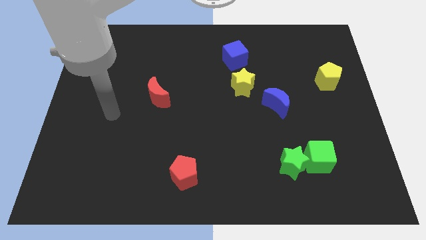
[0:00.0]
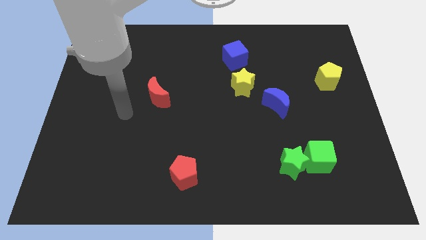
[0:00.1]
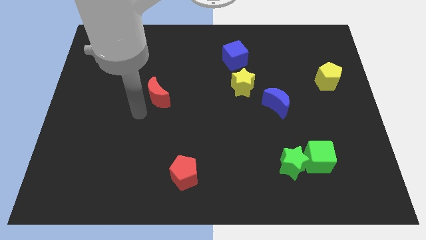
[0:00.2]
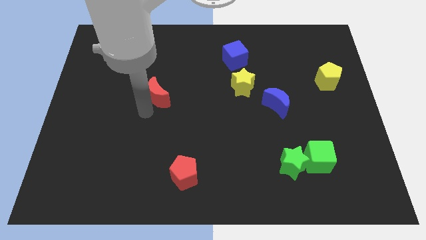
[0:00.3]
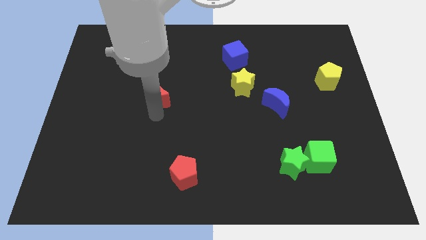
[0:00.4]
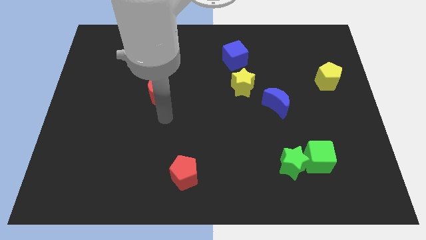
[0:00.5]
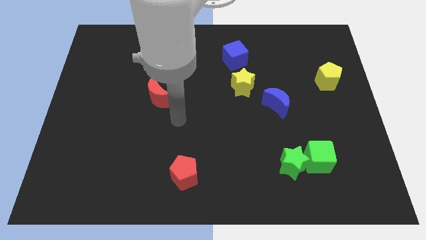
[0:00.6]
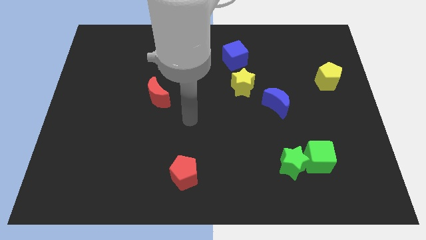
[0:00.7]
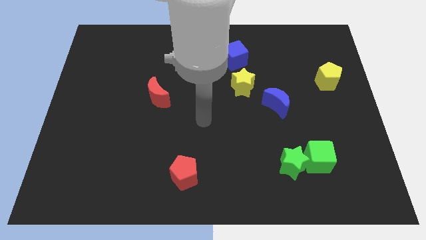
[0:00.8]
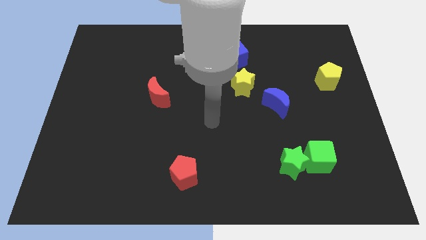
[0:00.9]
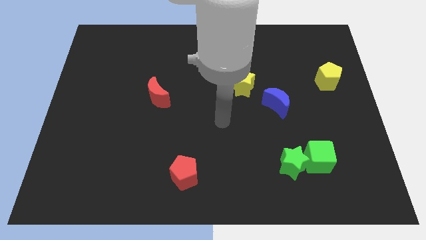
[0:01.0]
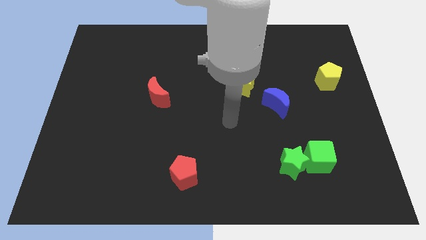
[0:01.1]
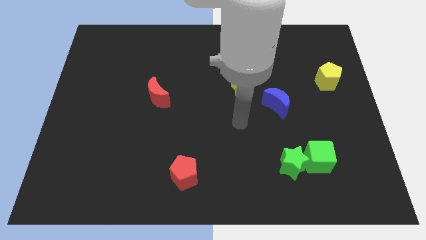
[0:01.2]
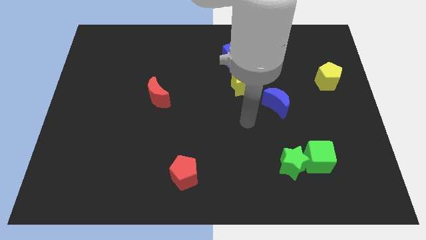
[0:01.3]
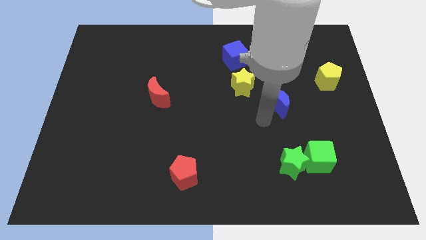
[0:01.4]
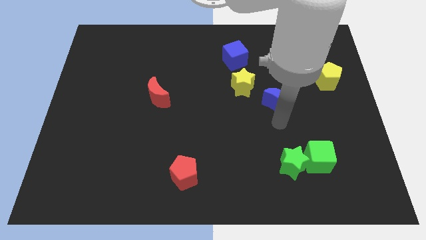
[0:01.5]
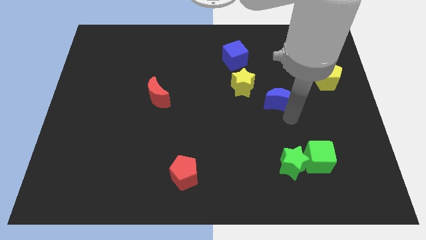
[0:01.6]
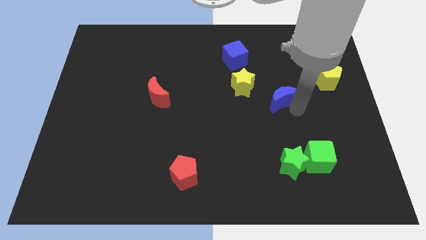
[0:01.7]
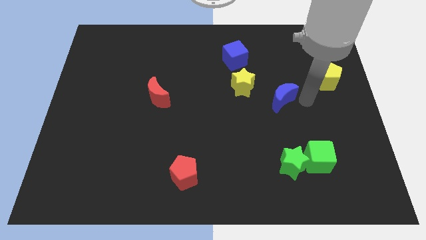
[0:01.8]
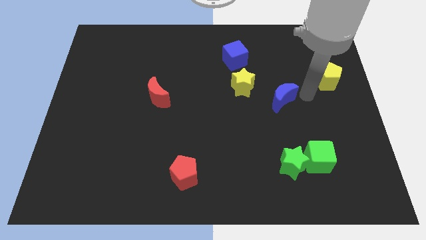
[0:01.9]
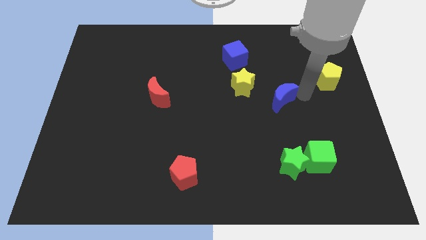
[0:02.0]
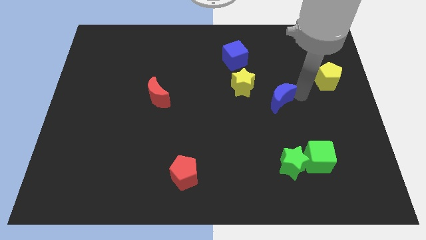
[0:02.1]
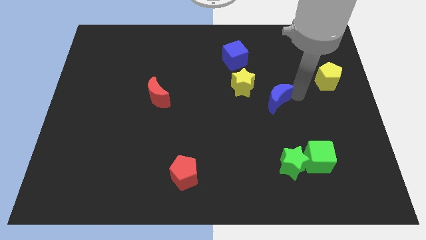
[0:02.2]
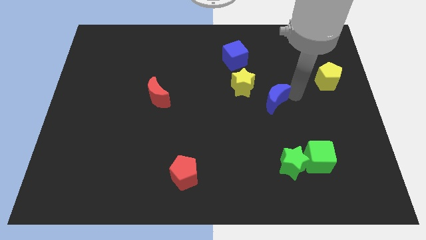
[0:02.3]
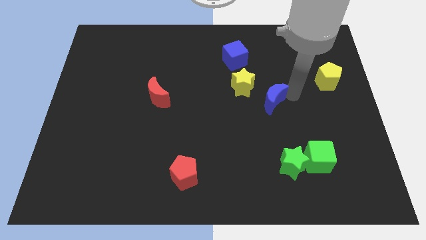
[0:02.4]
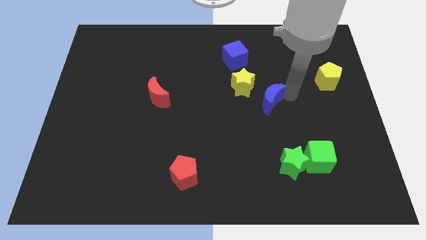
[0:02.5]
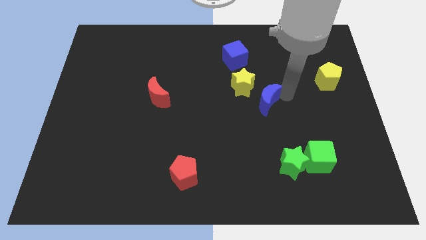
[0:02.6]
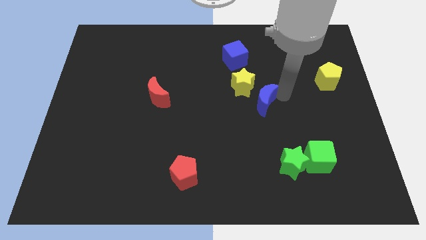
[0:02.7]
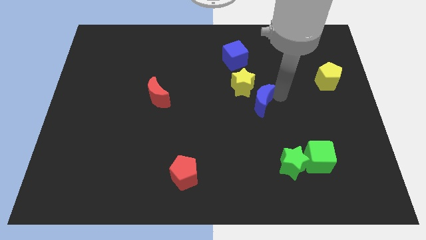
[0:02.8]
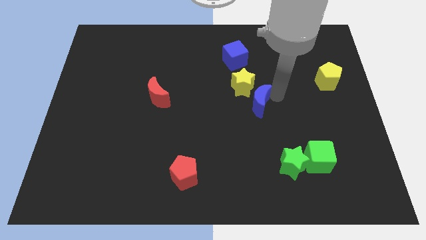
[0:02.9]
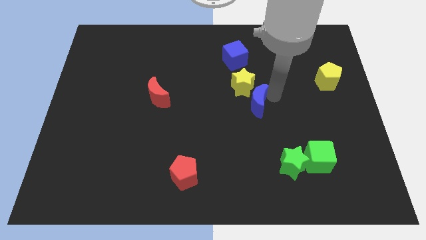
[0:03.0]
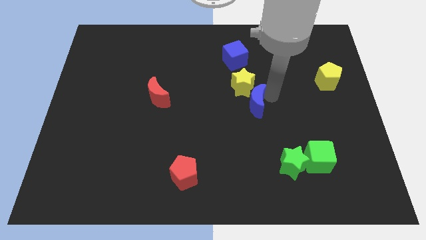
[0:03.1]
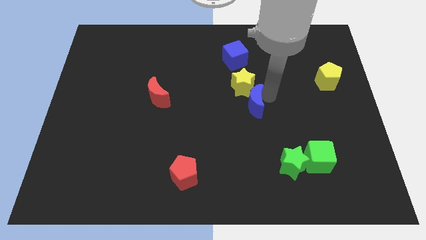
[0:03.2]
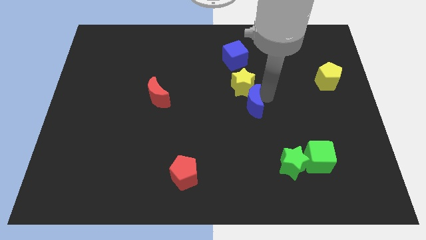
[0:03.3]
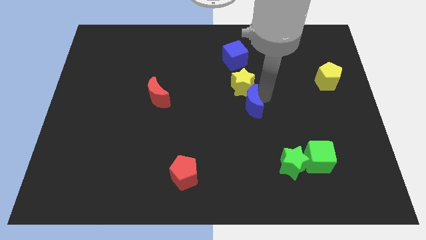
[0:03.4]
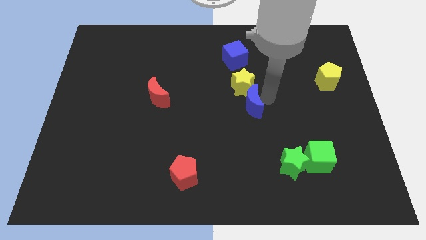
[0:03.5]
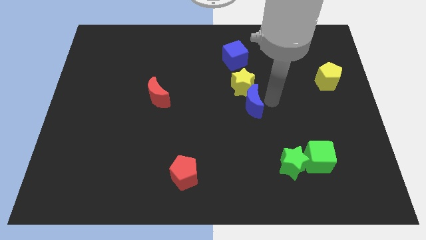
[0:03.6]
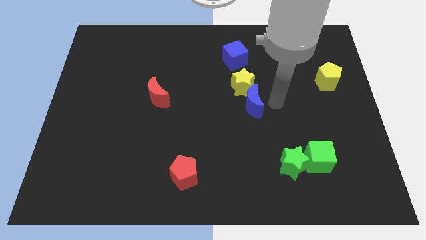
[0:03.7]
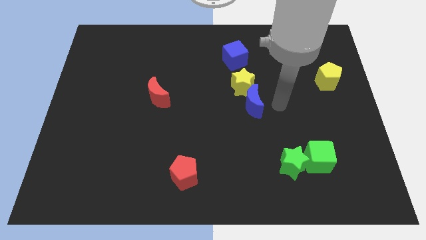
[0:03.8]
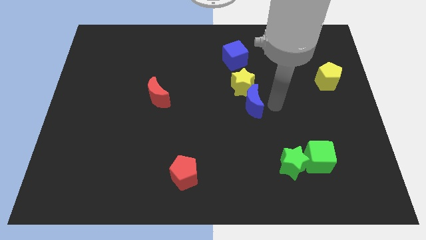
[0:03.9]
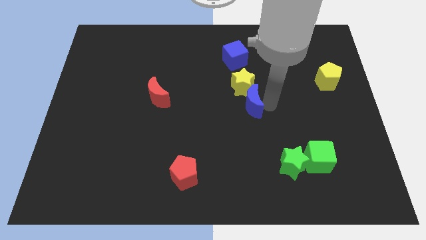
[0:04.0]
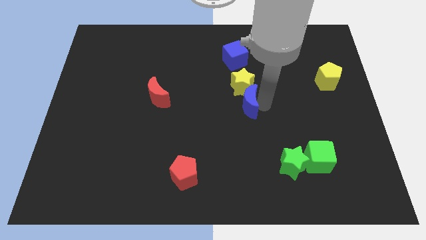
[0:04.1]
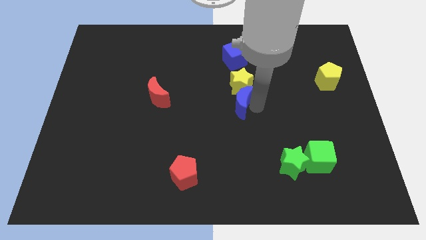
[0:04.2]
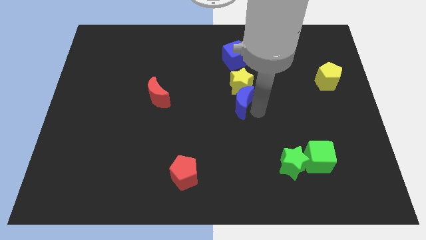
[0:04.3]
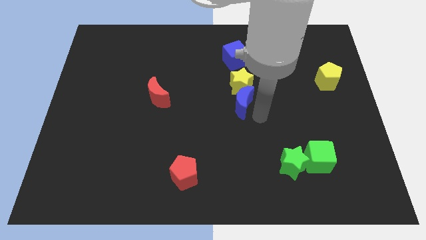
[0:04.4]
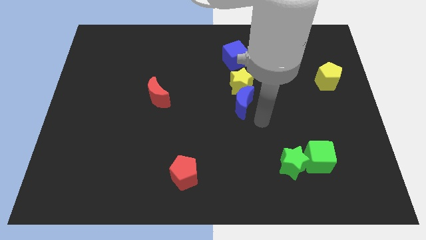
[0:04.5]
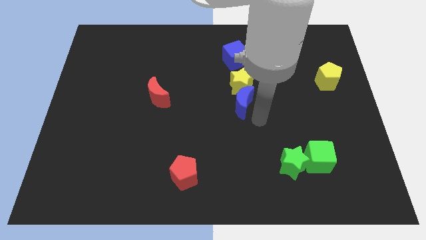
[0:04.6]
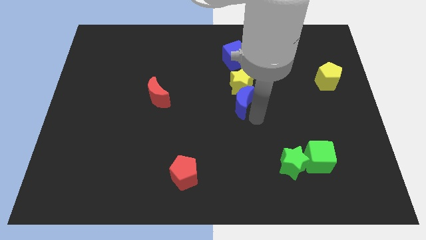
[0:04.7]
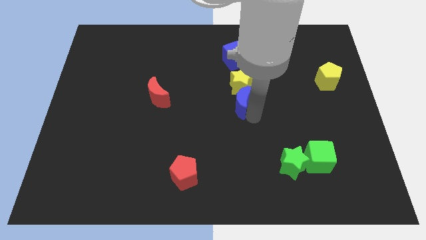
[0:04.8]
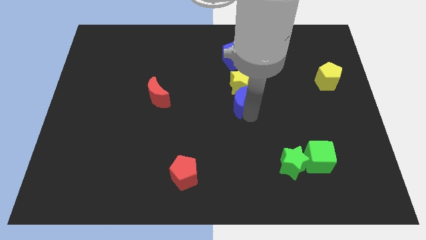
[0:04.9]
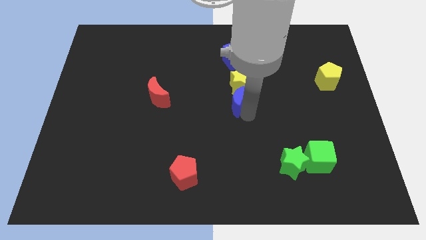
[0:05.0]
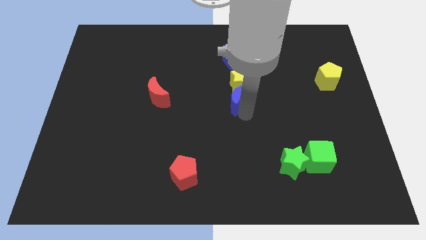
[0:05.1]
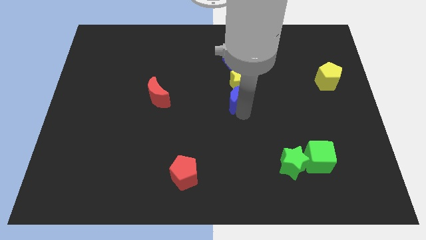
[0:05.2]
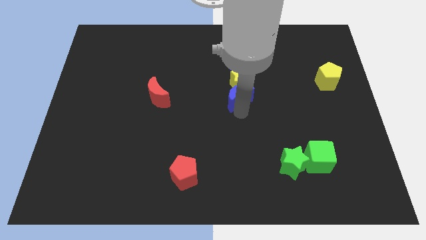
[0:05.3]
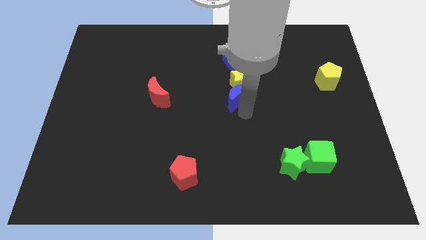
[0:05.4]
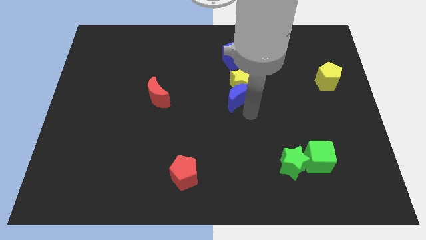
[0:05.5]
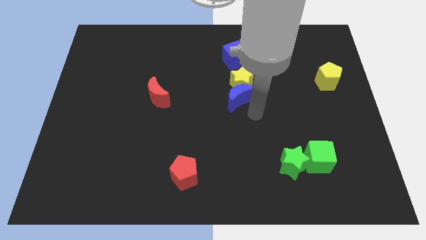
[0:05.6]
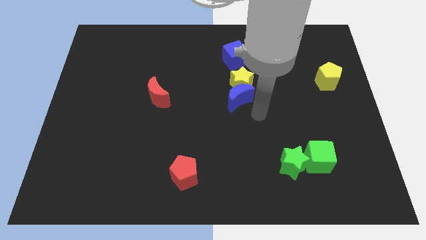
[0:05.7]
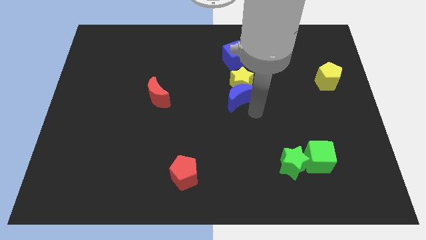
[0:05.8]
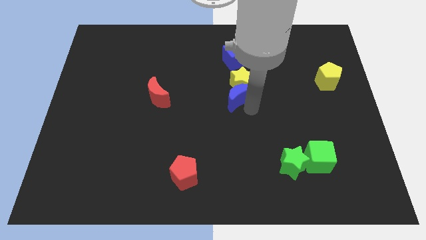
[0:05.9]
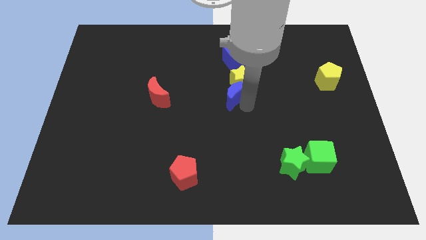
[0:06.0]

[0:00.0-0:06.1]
push the blue moon a little bit up and then to the left

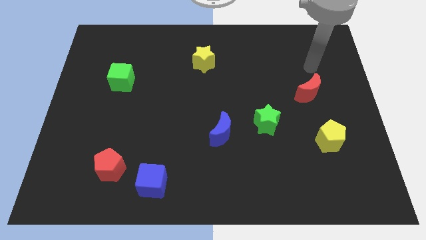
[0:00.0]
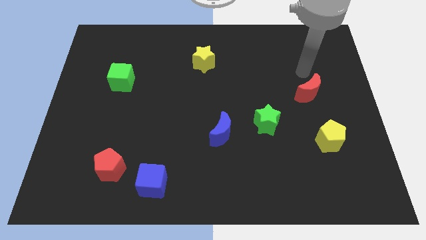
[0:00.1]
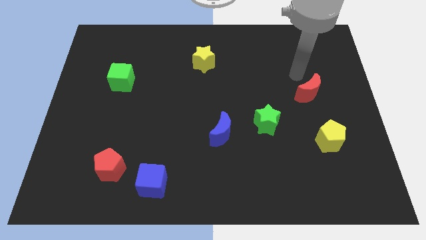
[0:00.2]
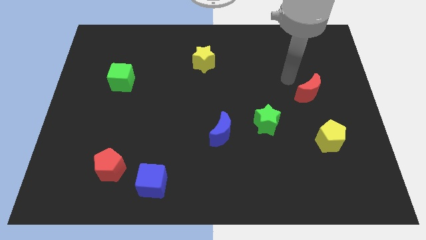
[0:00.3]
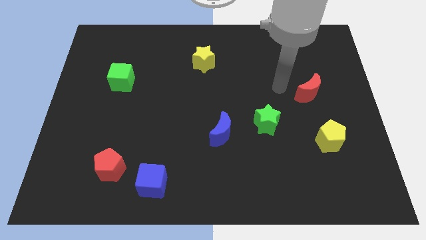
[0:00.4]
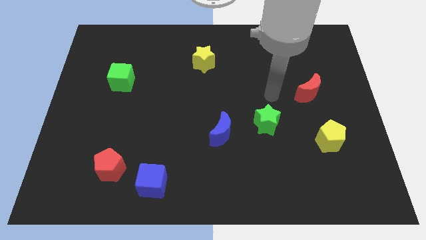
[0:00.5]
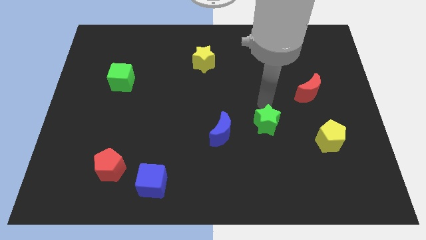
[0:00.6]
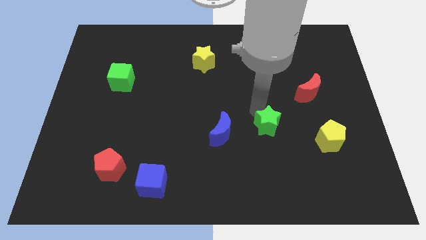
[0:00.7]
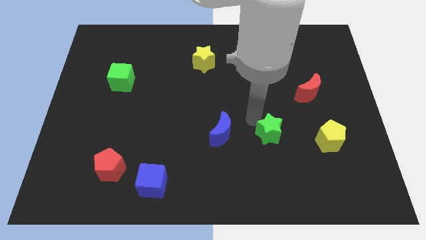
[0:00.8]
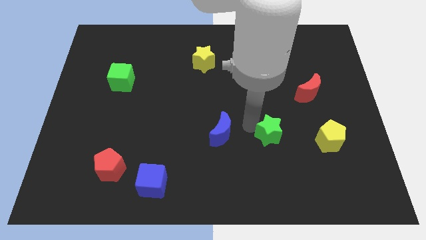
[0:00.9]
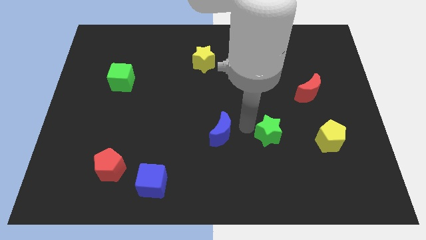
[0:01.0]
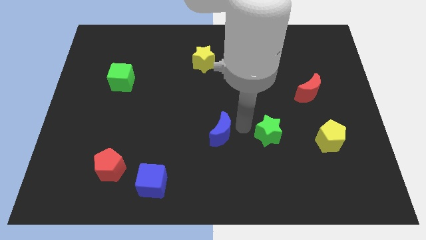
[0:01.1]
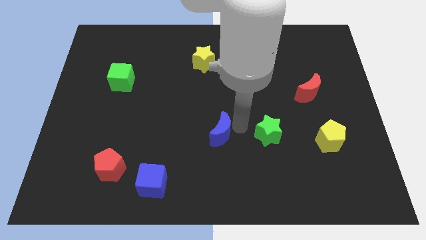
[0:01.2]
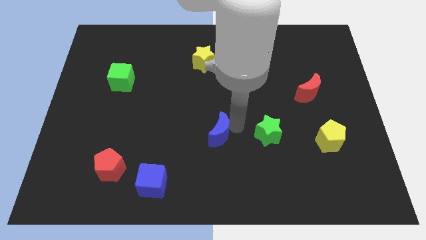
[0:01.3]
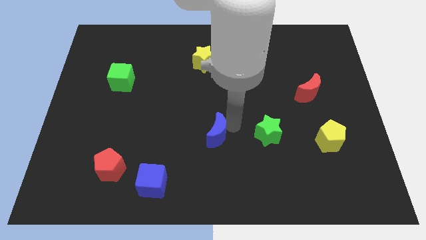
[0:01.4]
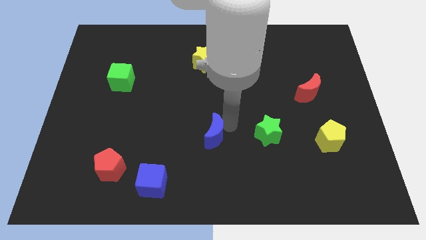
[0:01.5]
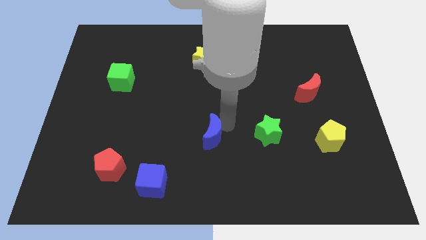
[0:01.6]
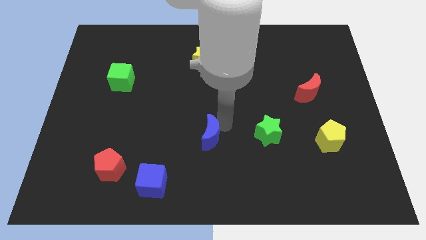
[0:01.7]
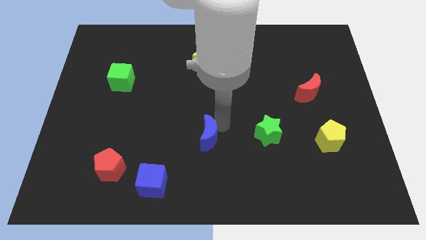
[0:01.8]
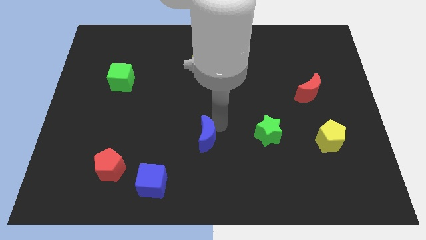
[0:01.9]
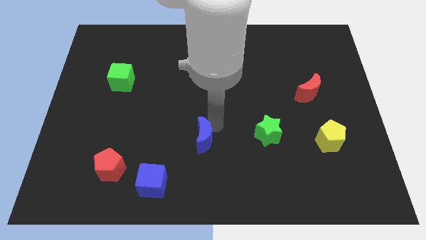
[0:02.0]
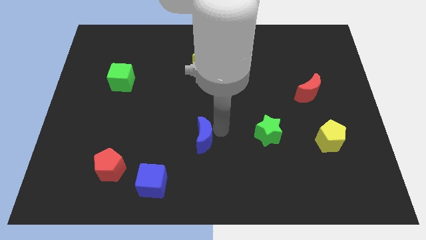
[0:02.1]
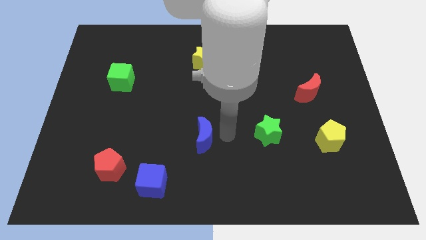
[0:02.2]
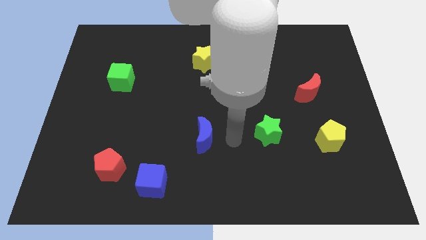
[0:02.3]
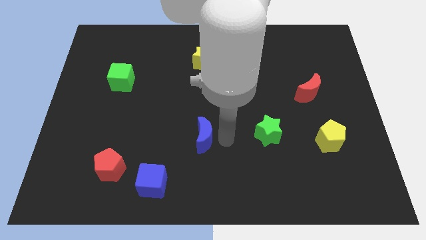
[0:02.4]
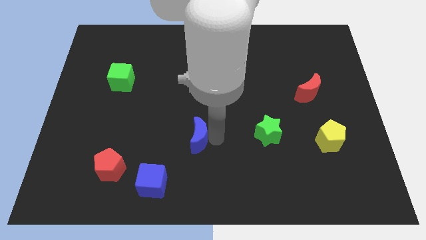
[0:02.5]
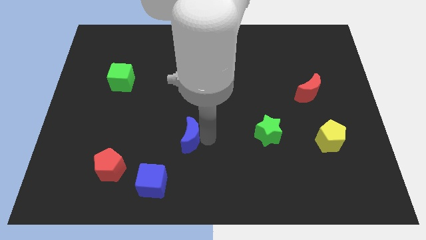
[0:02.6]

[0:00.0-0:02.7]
push the blue moon left slightly
